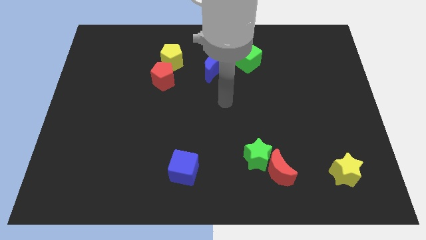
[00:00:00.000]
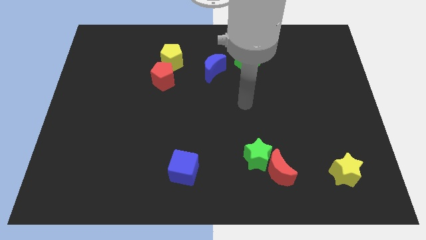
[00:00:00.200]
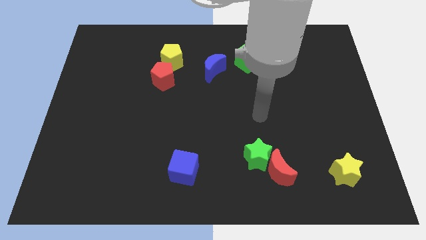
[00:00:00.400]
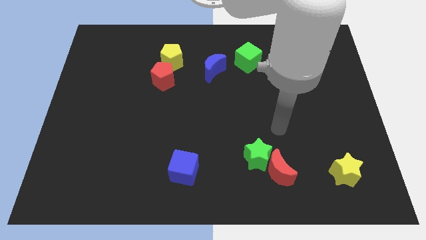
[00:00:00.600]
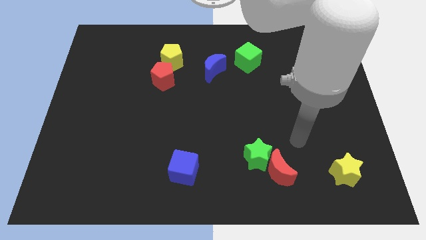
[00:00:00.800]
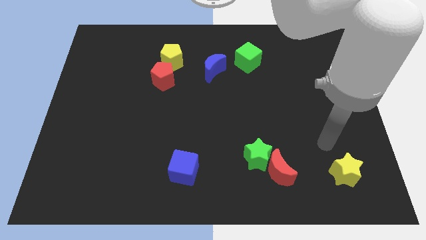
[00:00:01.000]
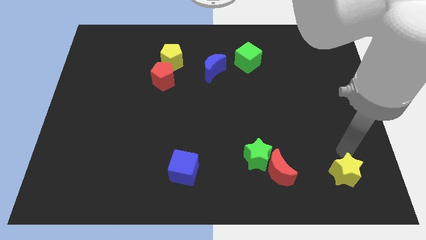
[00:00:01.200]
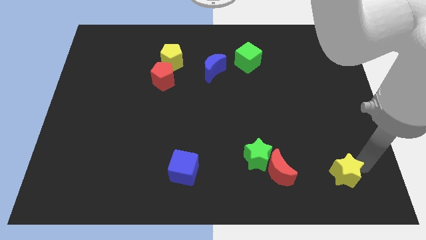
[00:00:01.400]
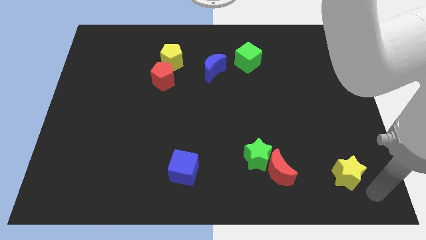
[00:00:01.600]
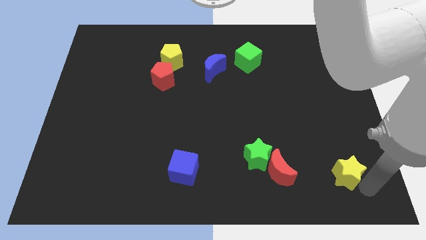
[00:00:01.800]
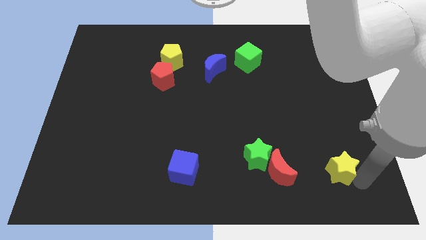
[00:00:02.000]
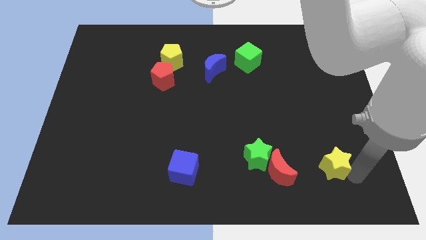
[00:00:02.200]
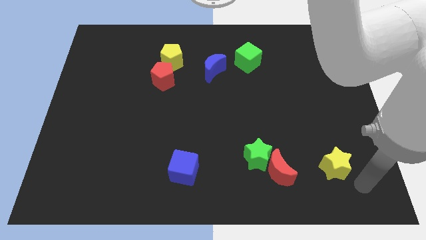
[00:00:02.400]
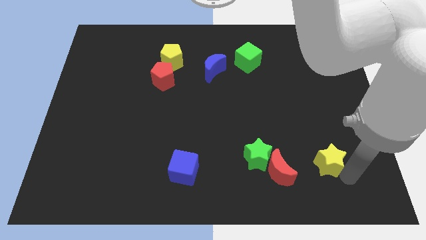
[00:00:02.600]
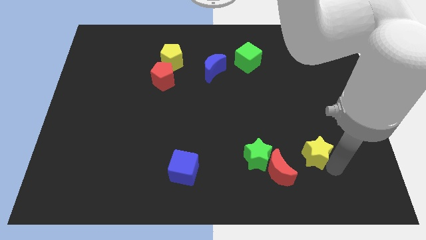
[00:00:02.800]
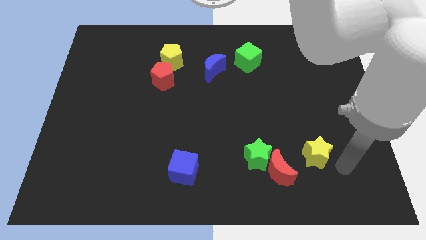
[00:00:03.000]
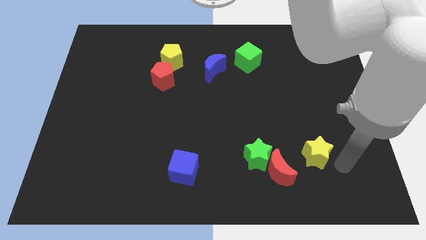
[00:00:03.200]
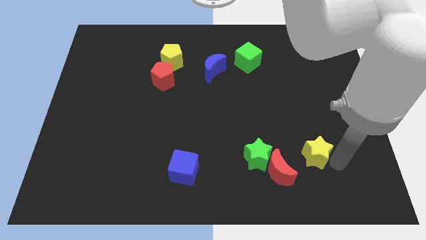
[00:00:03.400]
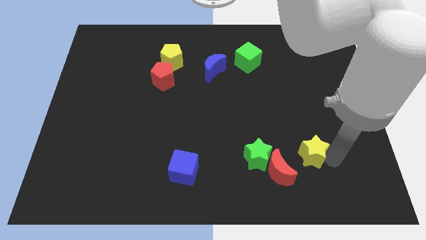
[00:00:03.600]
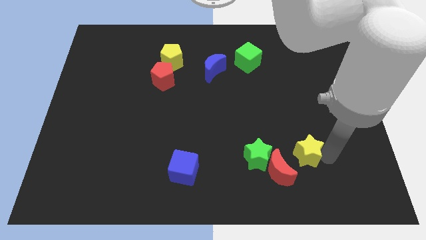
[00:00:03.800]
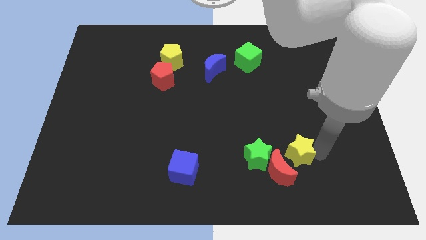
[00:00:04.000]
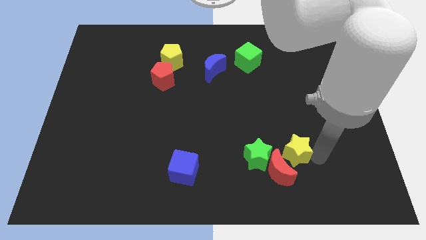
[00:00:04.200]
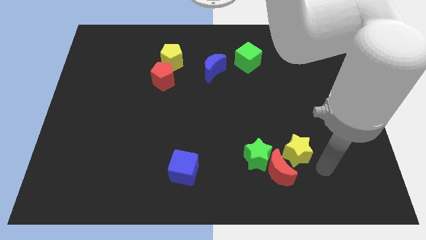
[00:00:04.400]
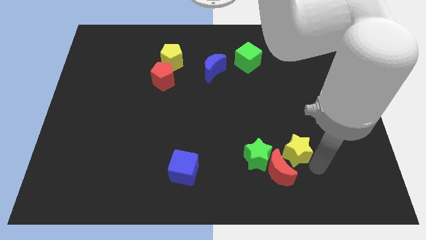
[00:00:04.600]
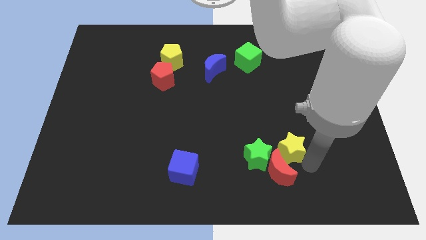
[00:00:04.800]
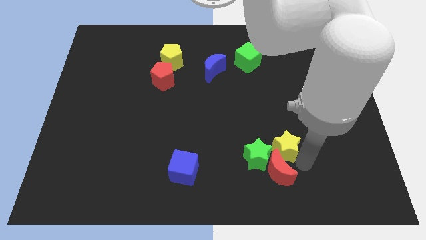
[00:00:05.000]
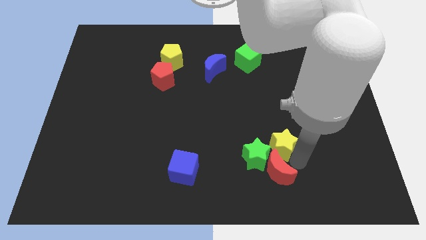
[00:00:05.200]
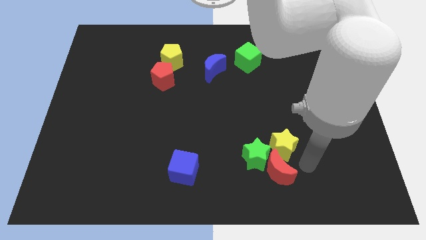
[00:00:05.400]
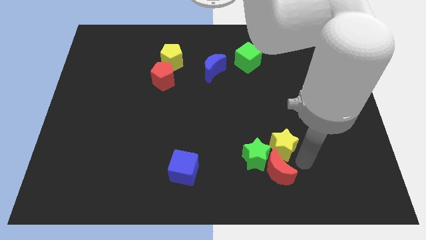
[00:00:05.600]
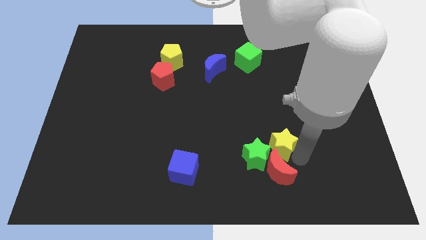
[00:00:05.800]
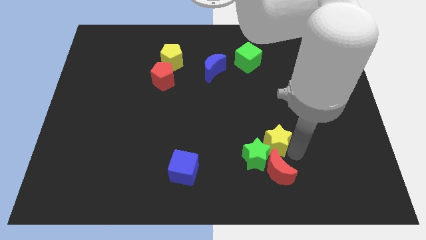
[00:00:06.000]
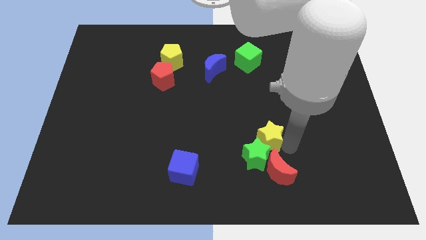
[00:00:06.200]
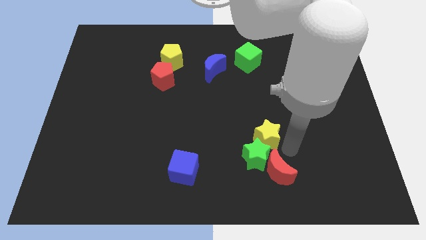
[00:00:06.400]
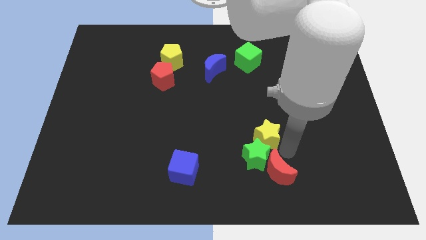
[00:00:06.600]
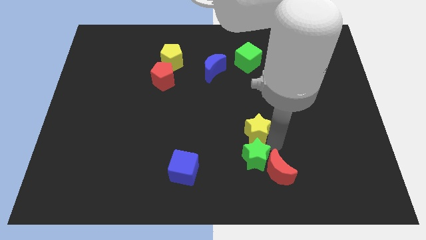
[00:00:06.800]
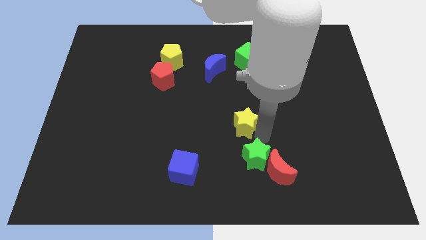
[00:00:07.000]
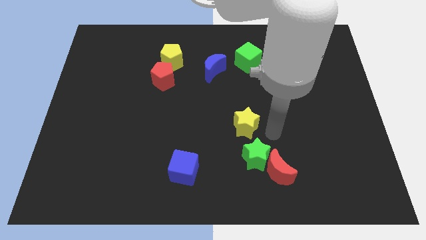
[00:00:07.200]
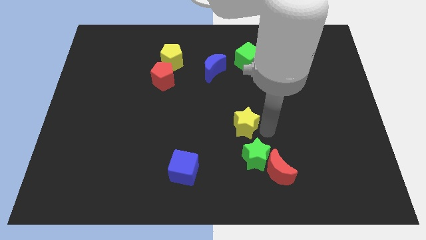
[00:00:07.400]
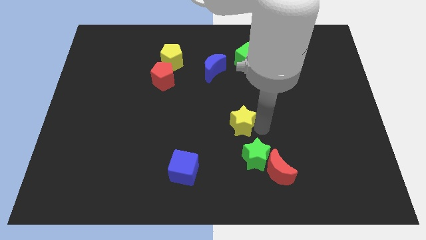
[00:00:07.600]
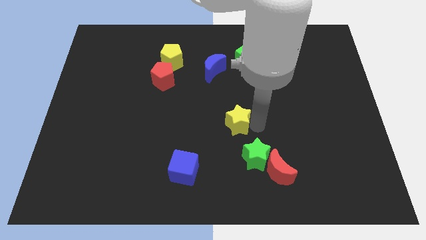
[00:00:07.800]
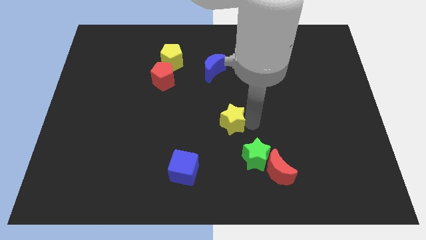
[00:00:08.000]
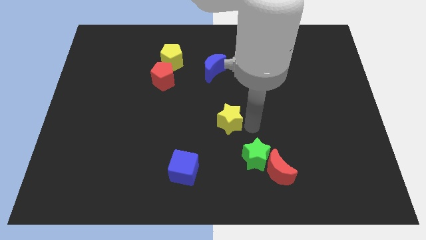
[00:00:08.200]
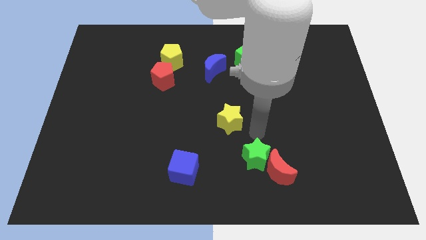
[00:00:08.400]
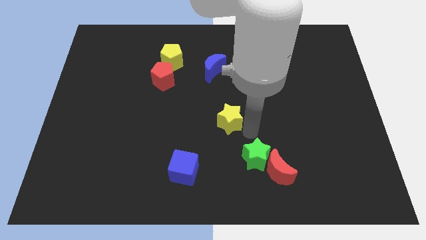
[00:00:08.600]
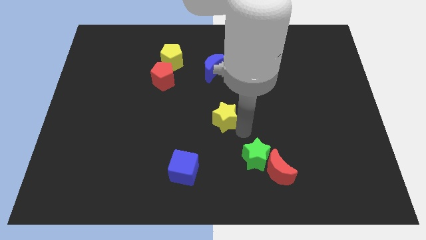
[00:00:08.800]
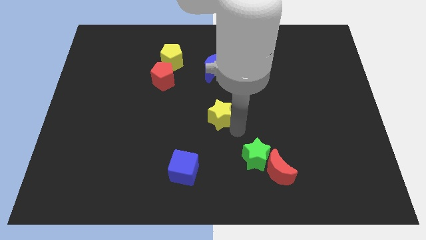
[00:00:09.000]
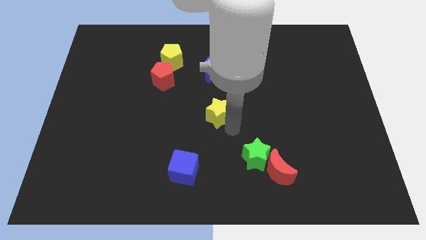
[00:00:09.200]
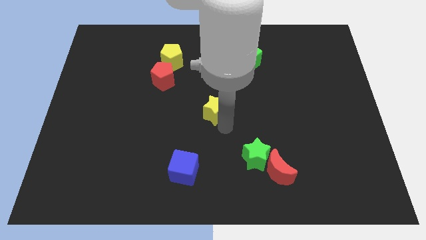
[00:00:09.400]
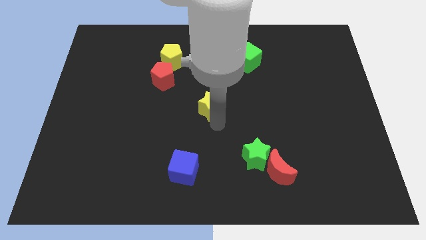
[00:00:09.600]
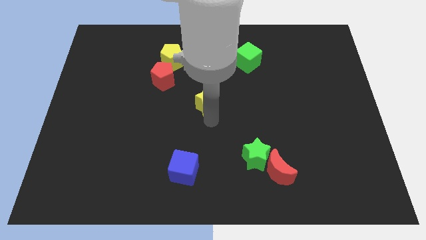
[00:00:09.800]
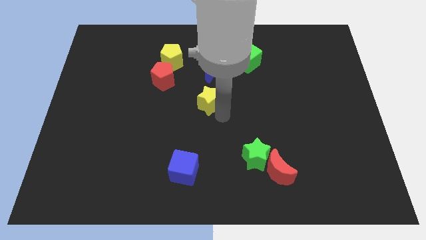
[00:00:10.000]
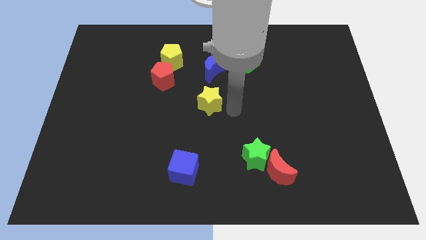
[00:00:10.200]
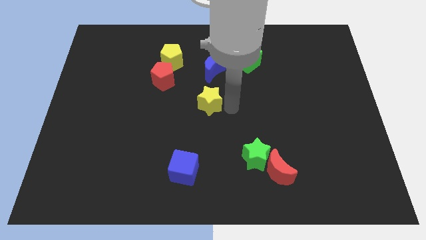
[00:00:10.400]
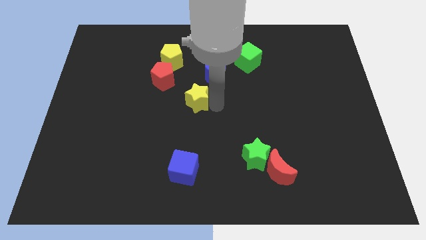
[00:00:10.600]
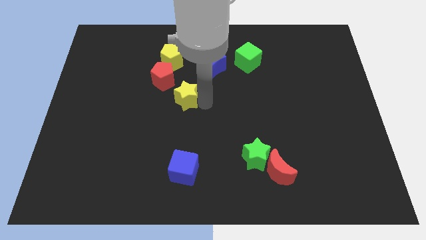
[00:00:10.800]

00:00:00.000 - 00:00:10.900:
put the yellow star to the bottom of the yellow pentagon

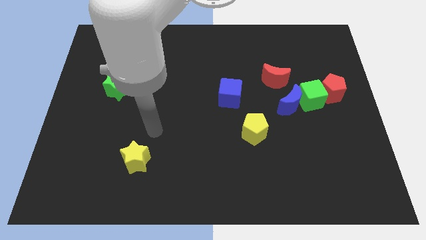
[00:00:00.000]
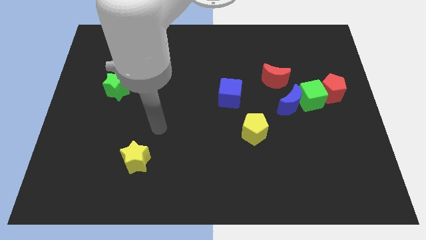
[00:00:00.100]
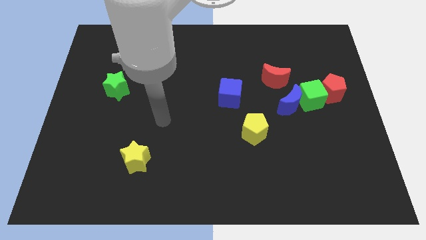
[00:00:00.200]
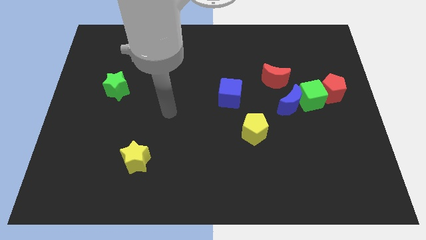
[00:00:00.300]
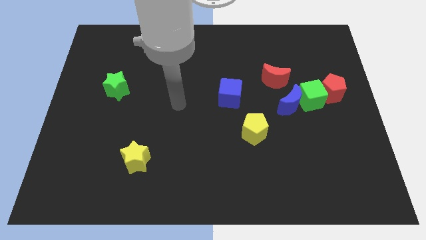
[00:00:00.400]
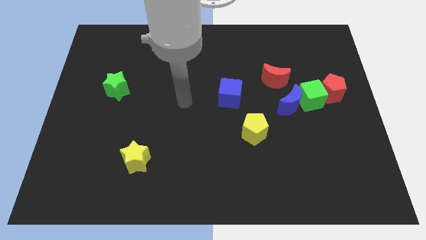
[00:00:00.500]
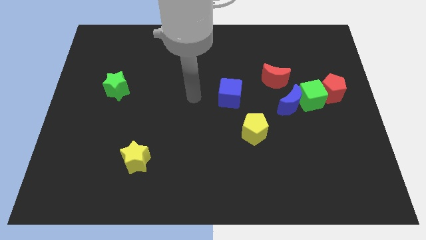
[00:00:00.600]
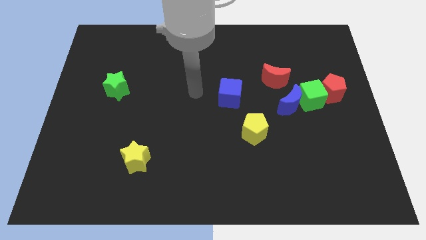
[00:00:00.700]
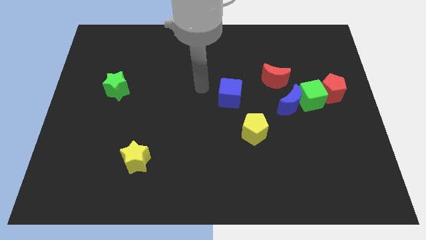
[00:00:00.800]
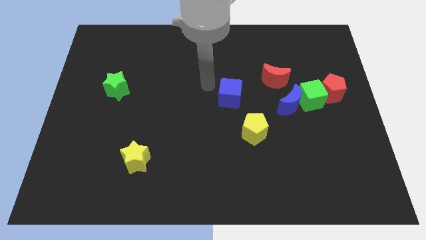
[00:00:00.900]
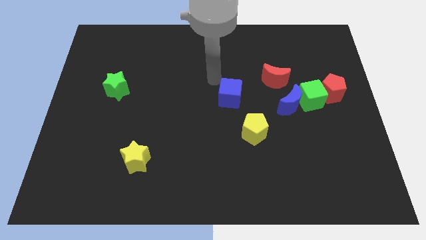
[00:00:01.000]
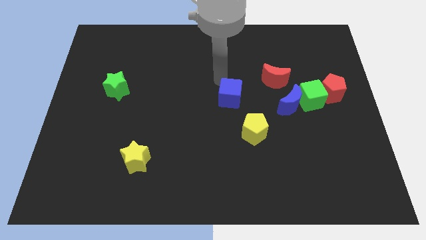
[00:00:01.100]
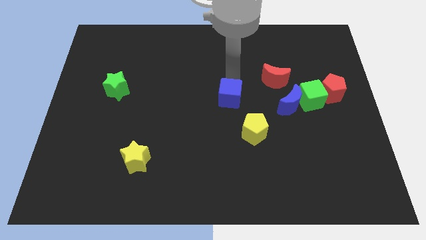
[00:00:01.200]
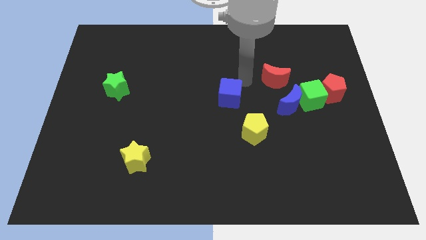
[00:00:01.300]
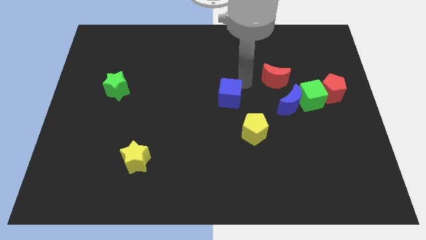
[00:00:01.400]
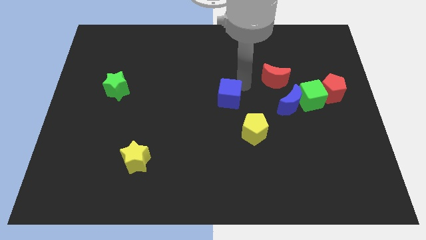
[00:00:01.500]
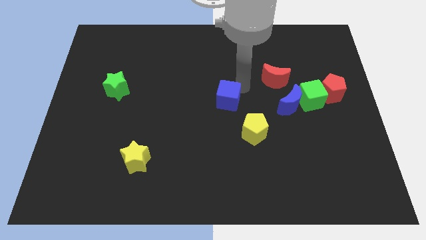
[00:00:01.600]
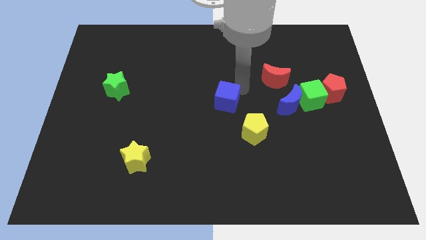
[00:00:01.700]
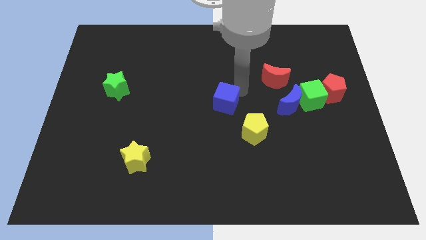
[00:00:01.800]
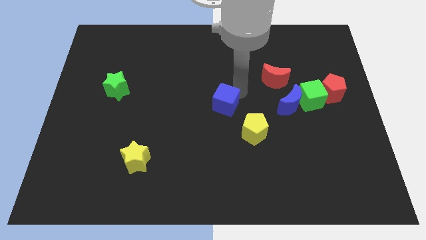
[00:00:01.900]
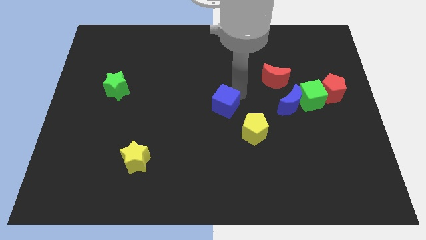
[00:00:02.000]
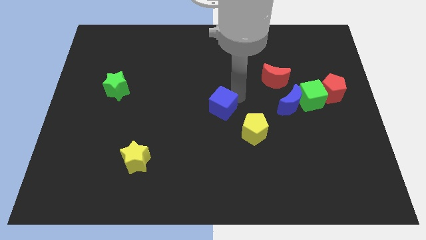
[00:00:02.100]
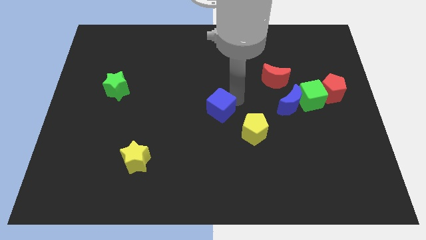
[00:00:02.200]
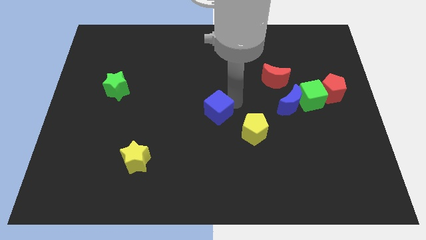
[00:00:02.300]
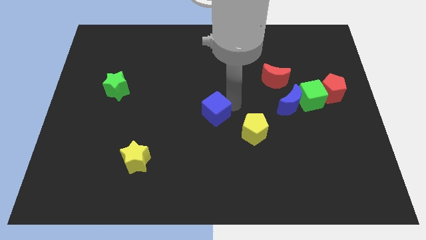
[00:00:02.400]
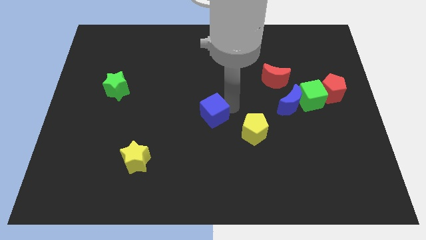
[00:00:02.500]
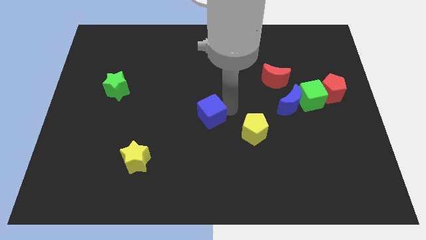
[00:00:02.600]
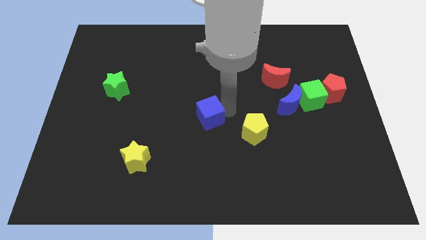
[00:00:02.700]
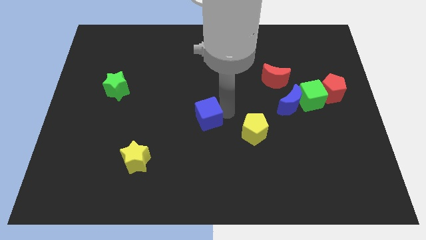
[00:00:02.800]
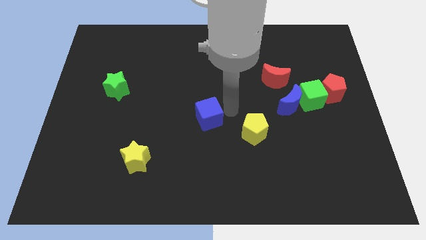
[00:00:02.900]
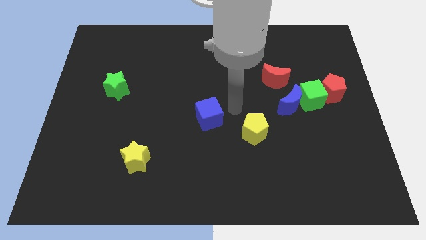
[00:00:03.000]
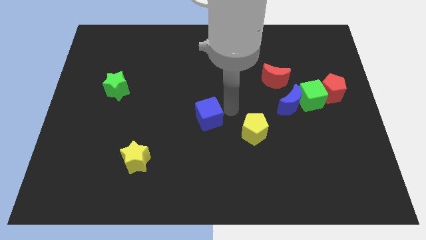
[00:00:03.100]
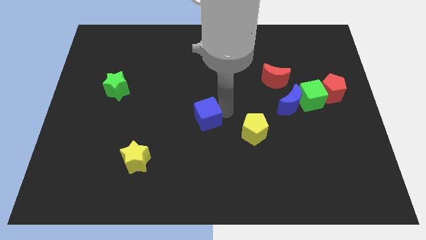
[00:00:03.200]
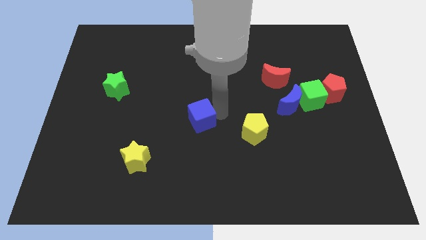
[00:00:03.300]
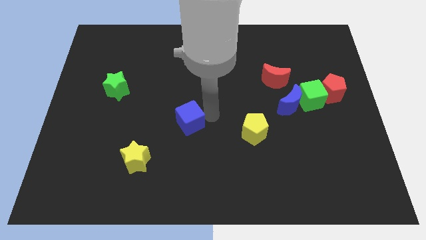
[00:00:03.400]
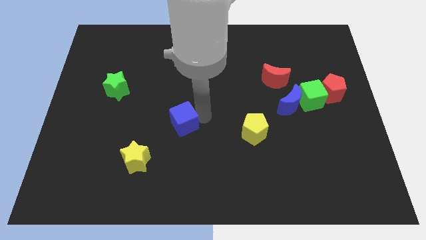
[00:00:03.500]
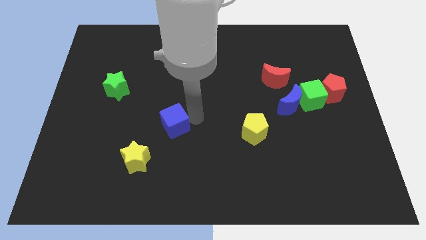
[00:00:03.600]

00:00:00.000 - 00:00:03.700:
slide the blue cube to the top right side of the yellow star
